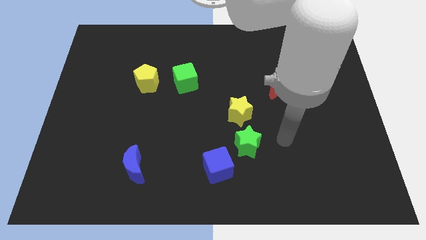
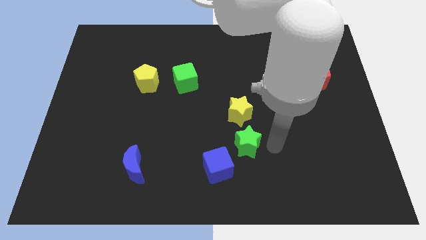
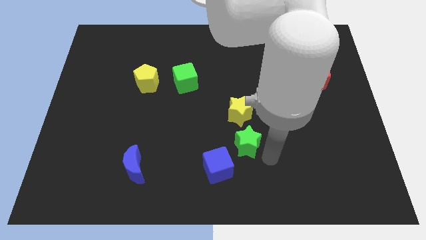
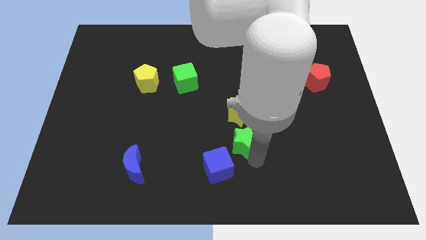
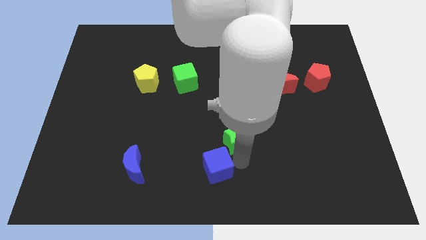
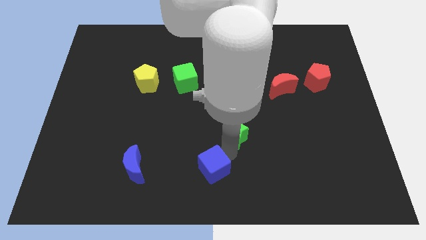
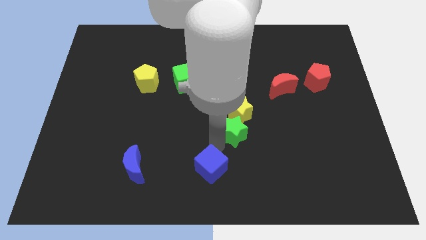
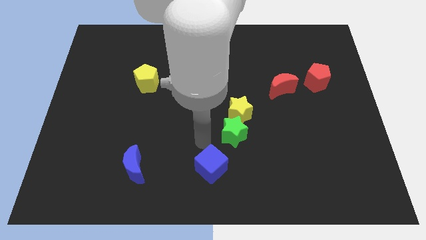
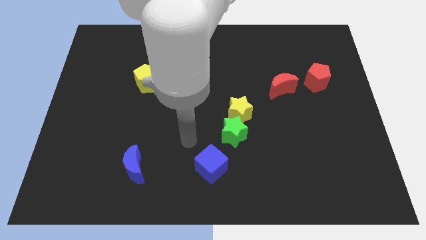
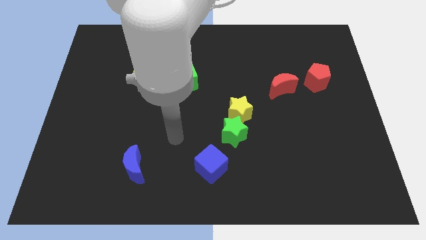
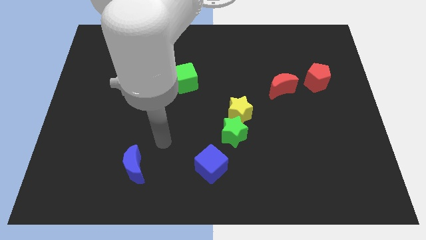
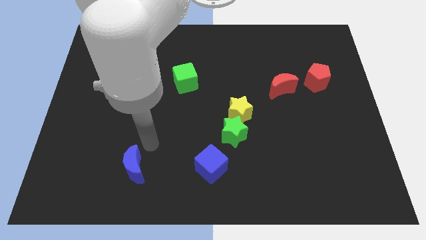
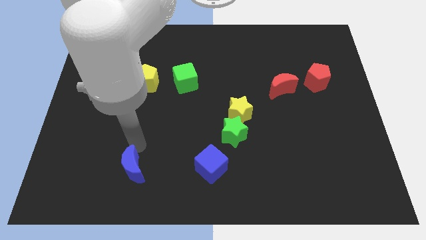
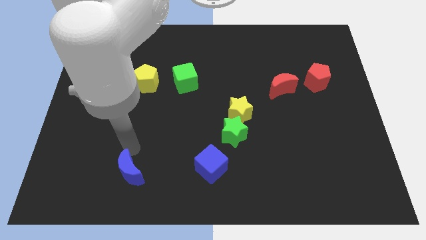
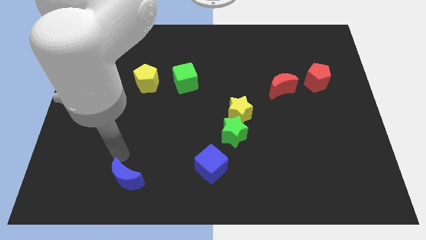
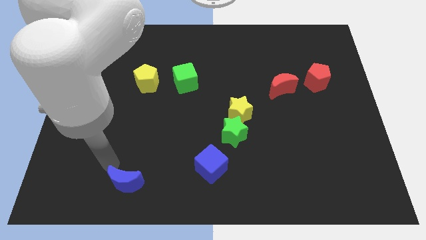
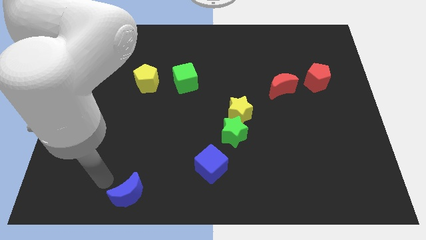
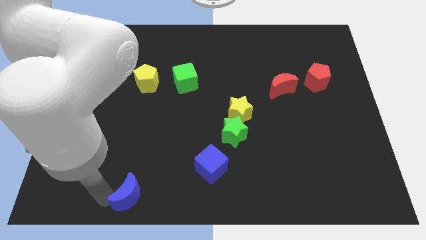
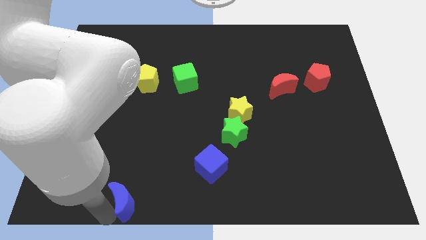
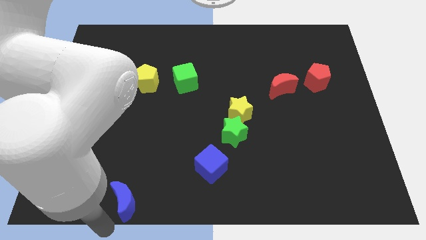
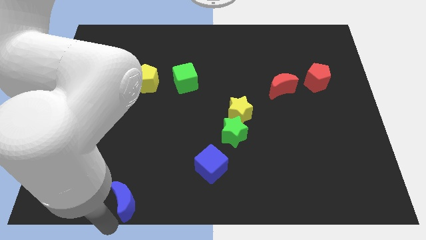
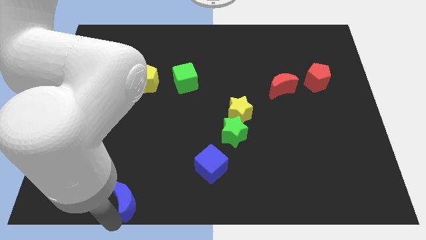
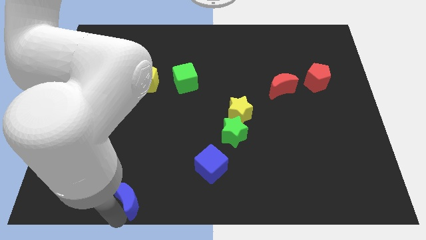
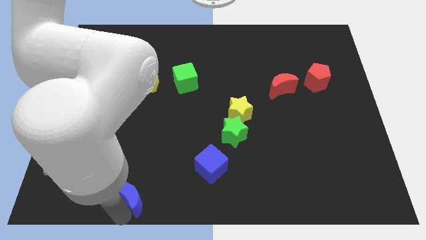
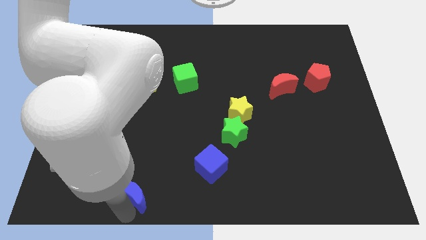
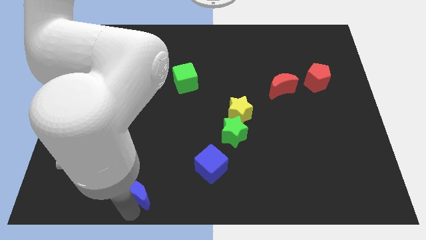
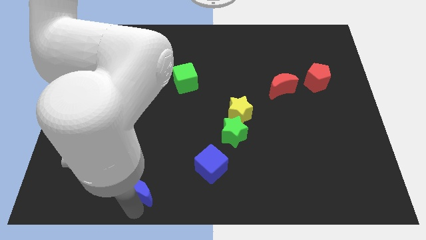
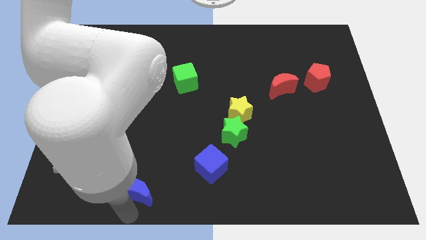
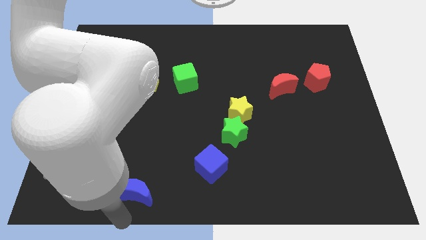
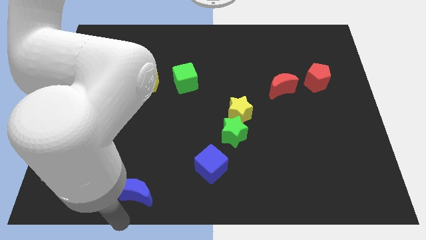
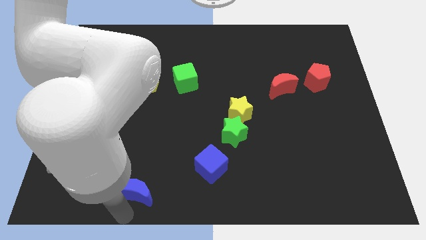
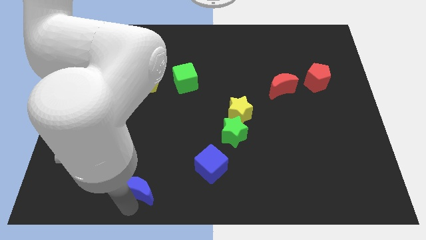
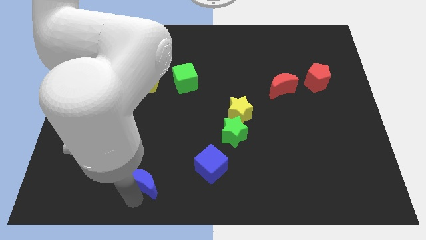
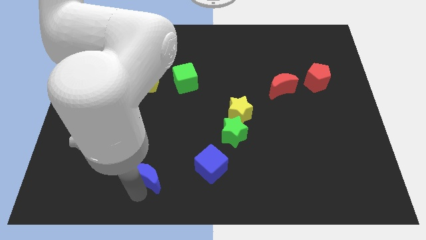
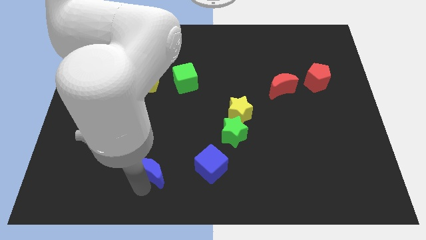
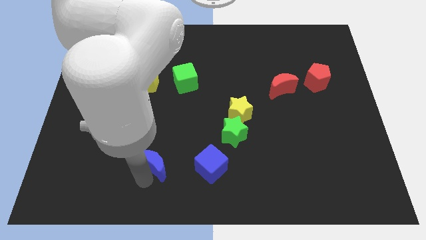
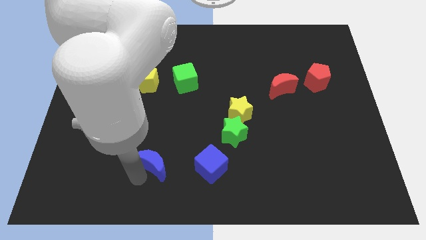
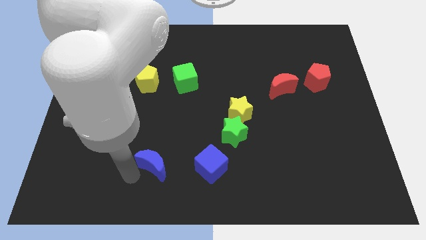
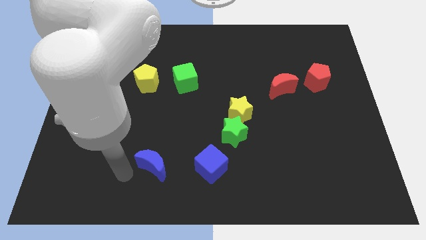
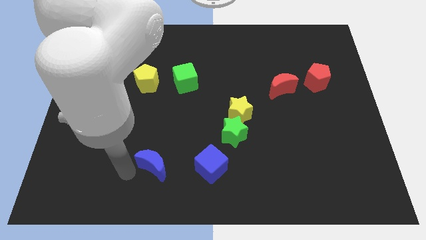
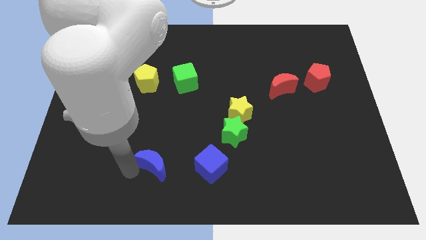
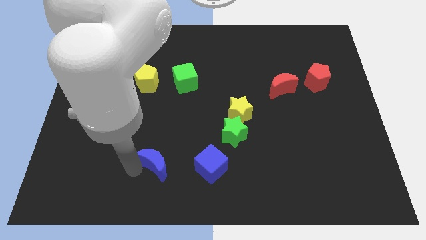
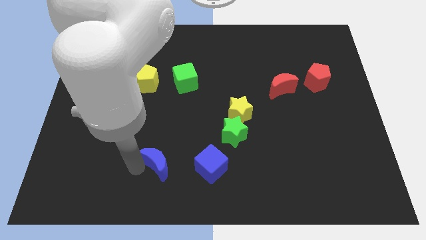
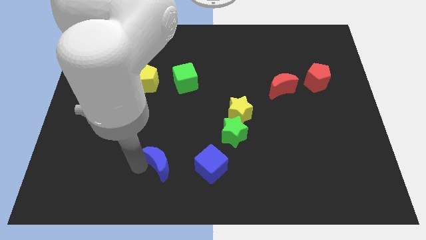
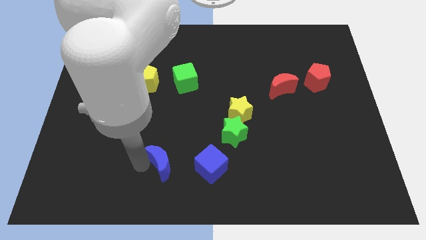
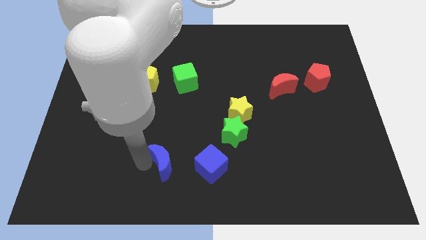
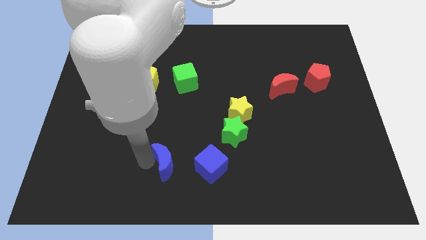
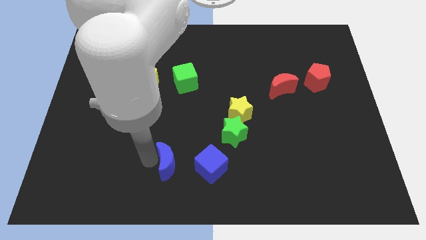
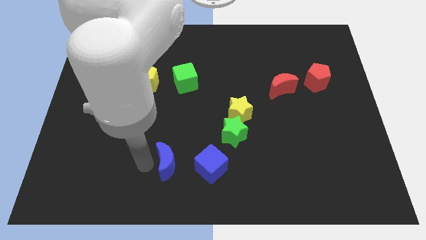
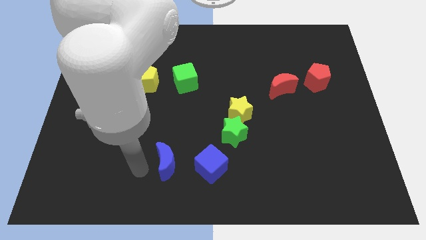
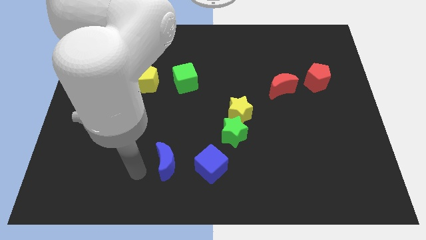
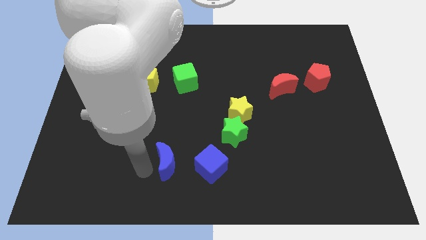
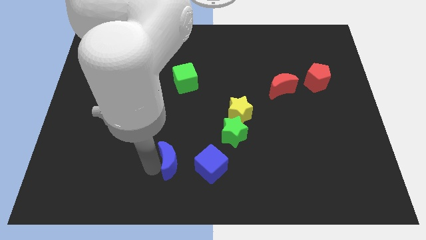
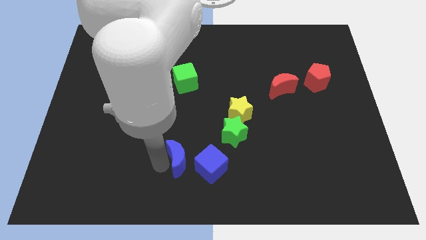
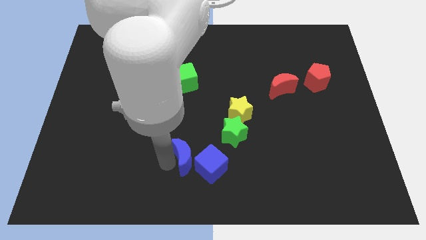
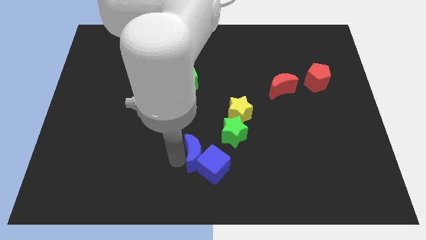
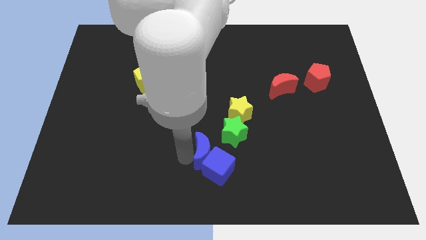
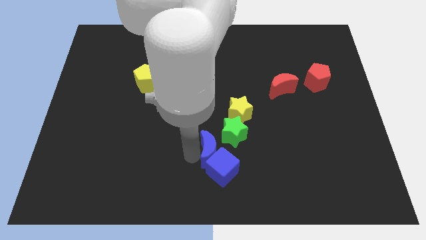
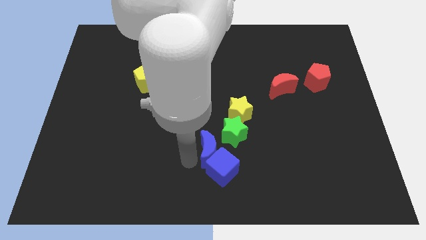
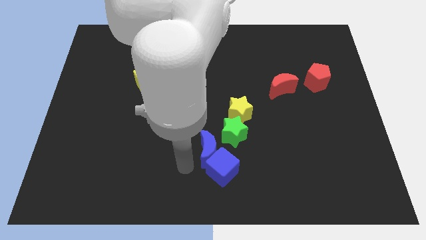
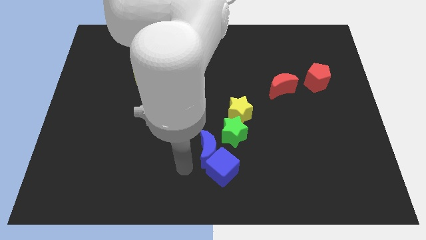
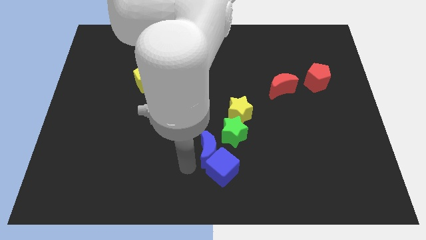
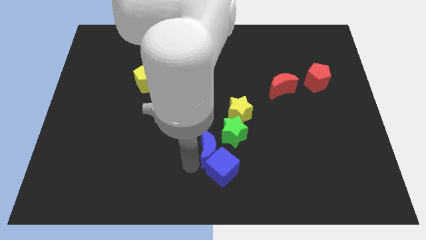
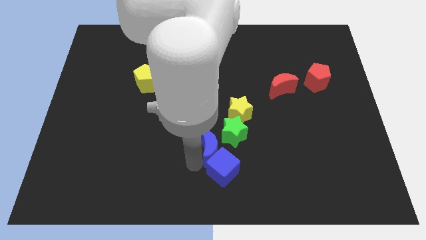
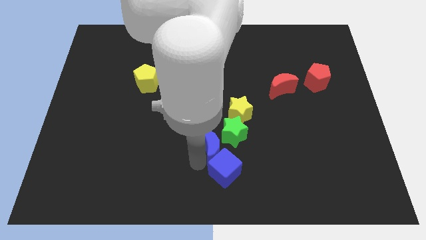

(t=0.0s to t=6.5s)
slide the blue moon close to the green star

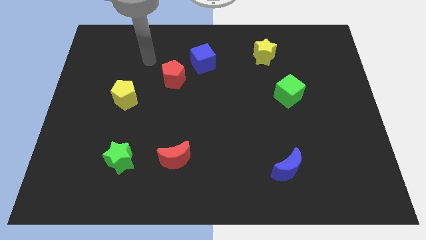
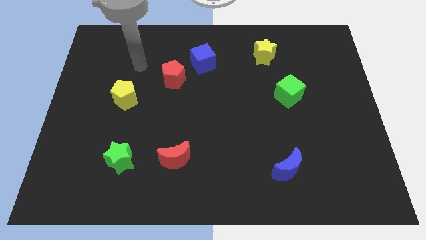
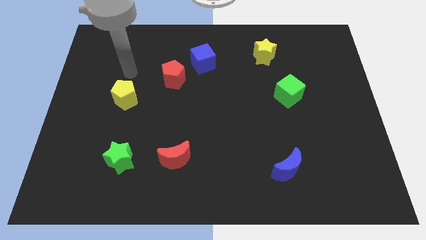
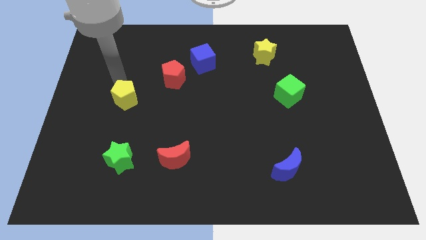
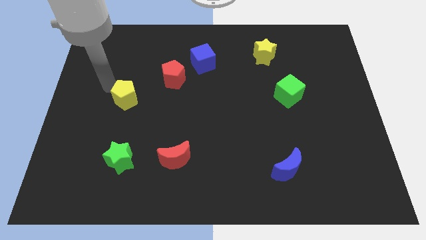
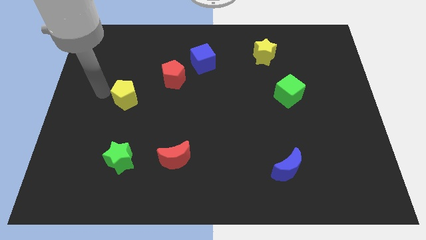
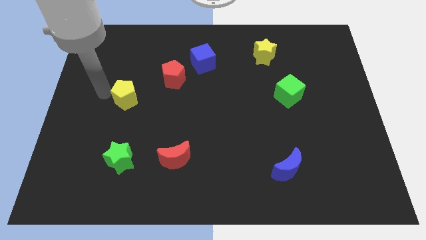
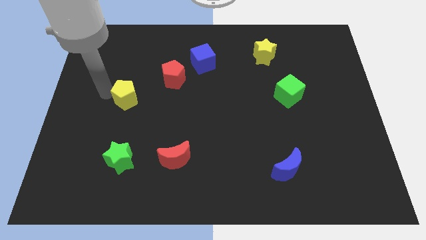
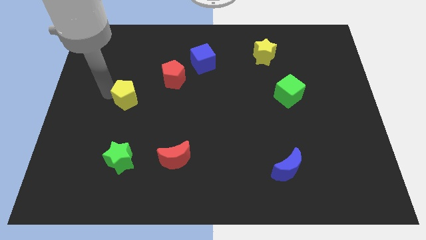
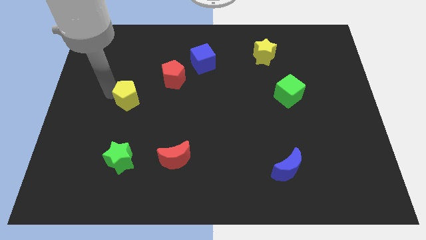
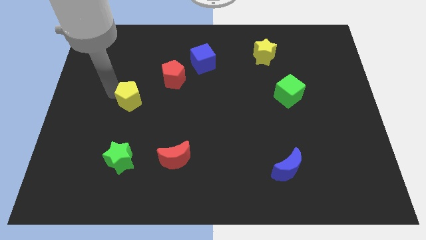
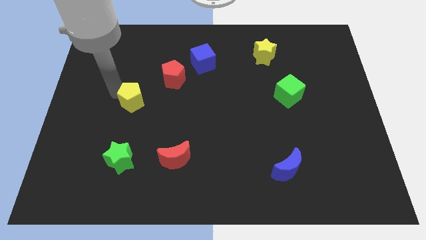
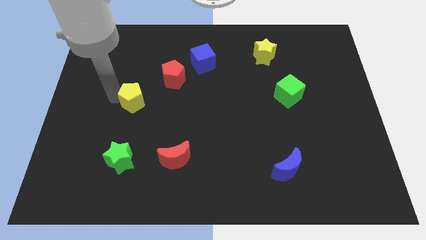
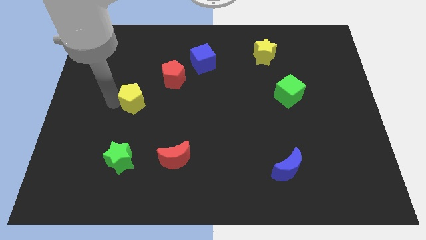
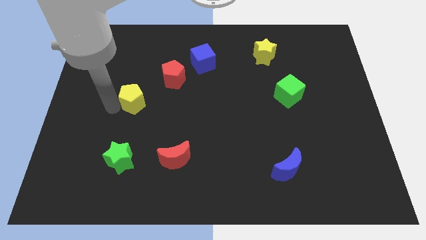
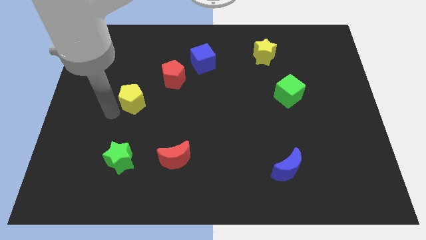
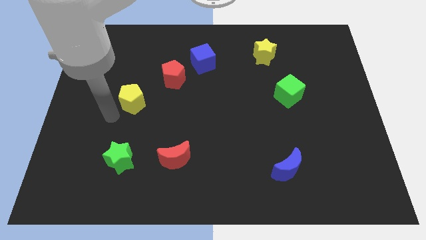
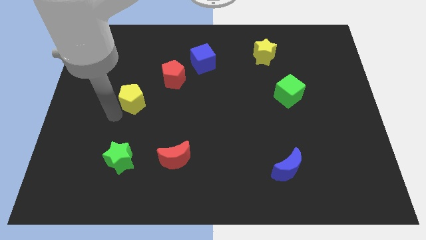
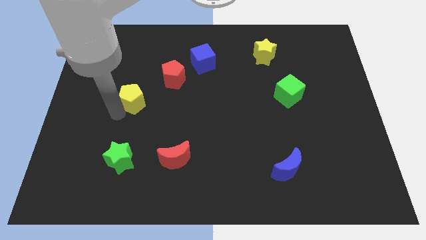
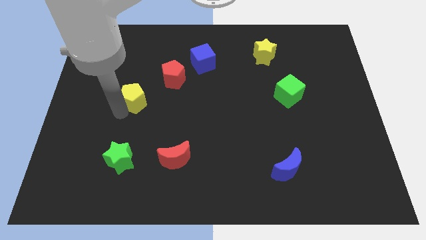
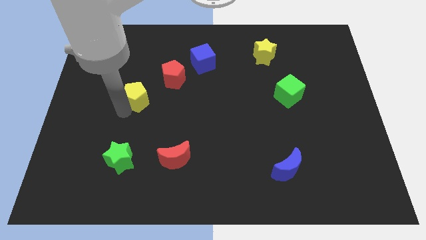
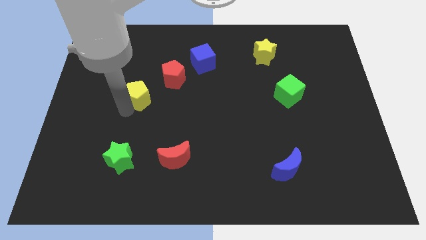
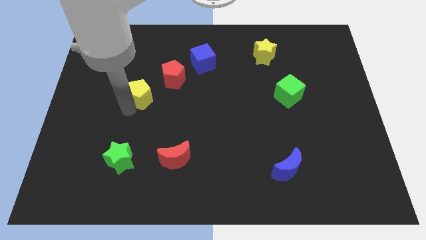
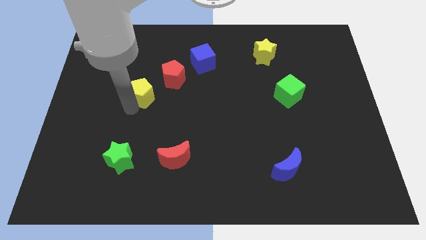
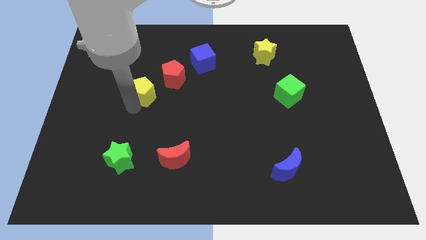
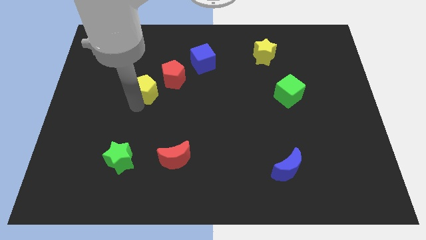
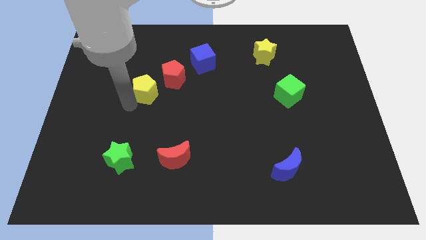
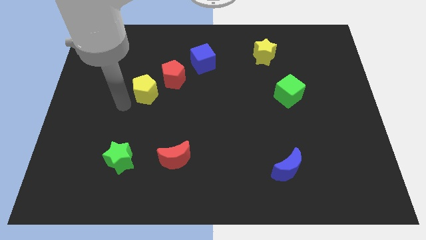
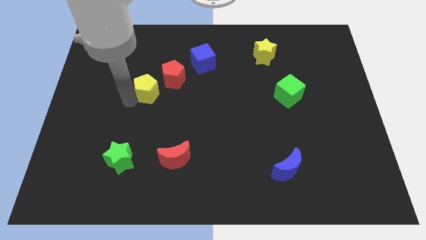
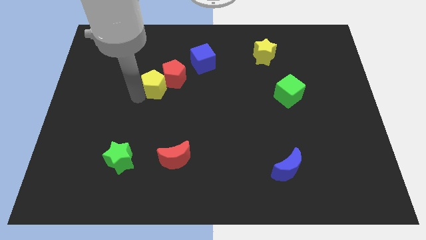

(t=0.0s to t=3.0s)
put the yellow pentagon next to the red pentagon
